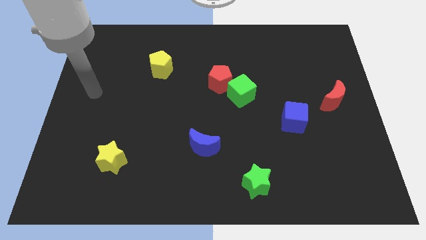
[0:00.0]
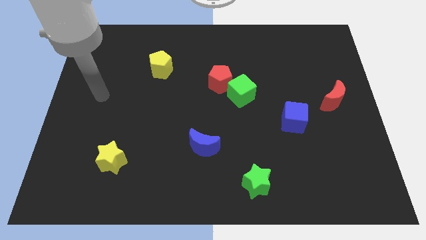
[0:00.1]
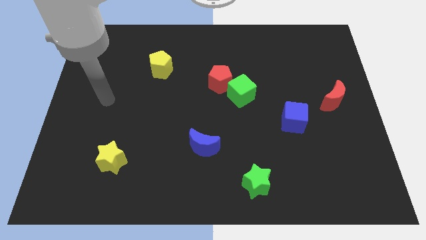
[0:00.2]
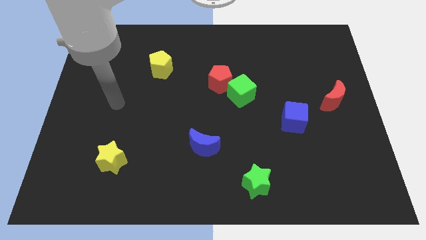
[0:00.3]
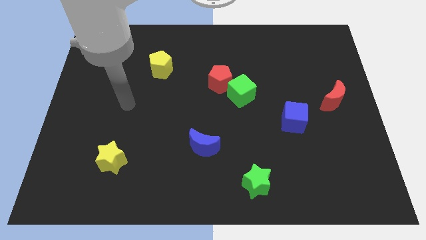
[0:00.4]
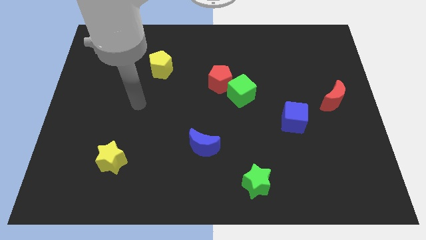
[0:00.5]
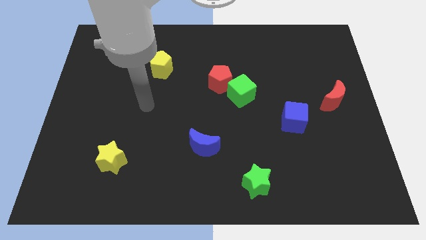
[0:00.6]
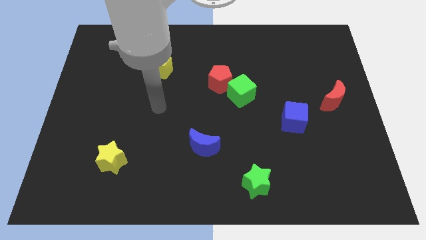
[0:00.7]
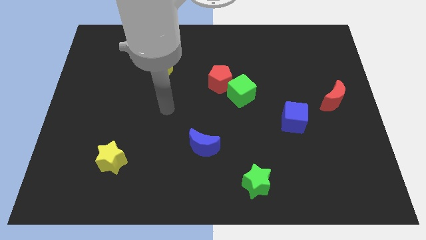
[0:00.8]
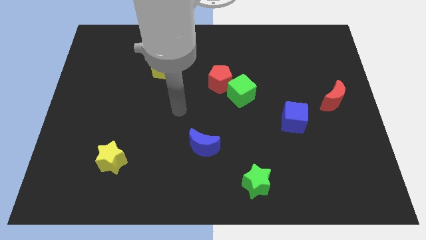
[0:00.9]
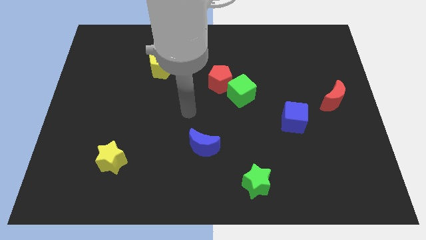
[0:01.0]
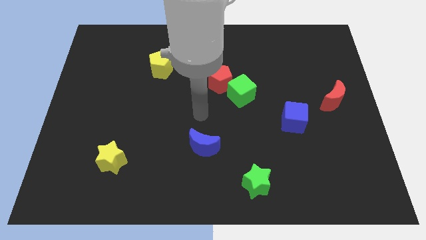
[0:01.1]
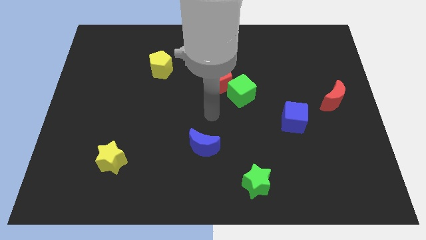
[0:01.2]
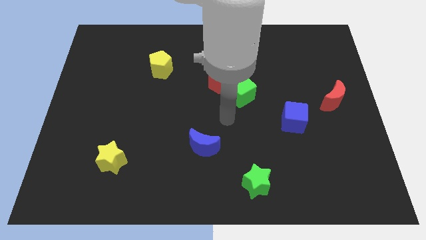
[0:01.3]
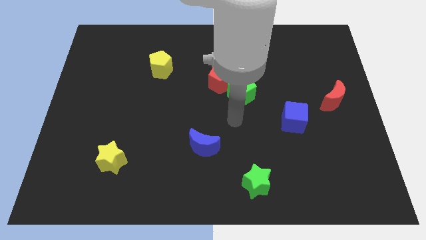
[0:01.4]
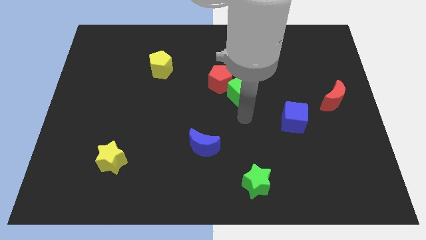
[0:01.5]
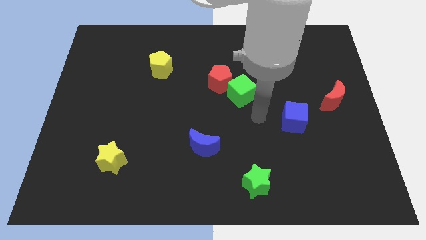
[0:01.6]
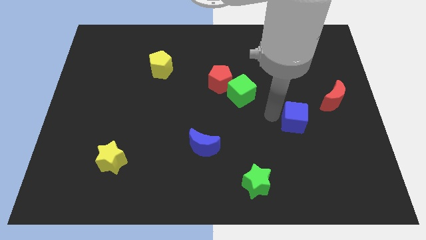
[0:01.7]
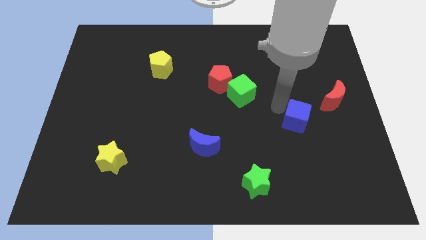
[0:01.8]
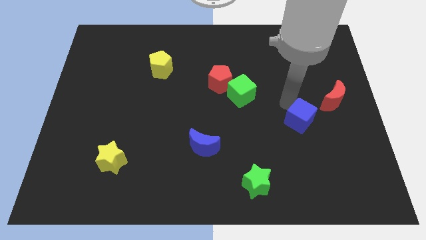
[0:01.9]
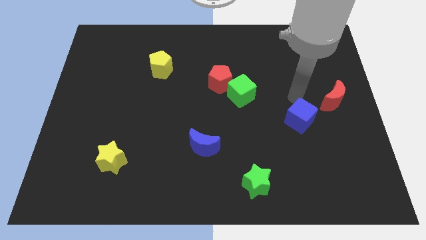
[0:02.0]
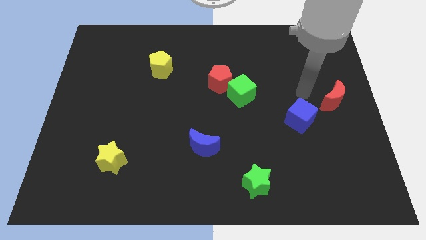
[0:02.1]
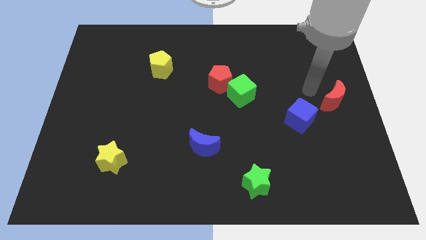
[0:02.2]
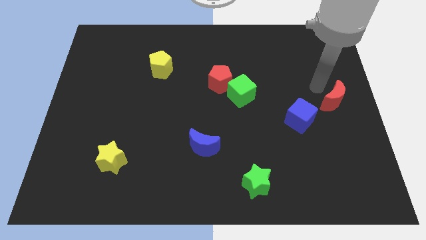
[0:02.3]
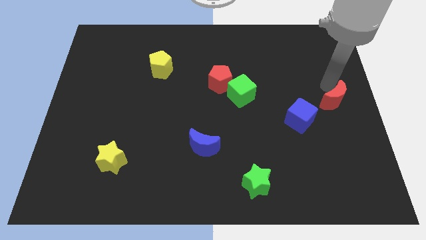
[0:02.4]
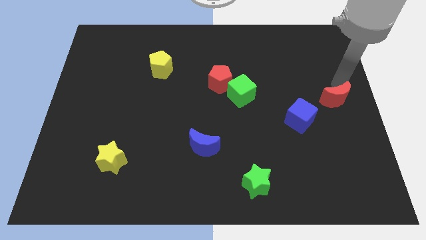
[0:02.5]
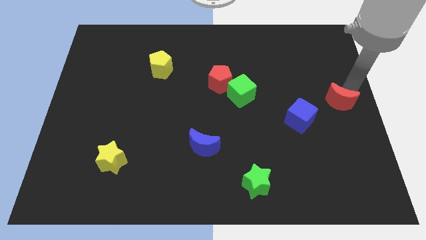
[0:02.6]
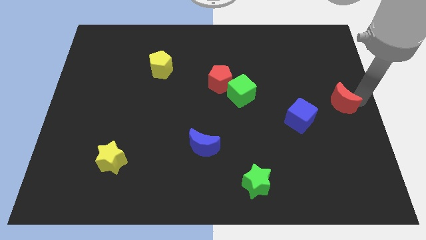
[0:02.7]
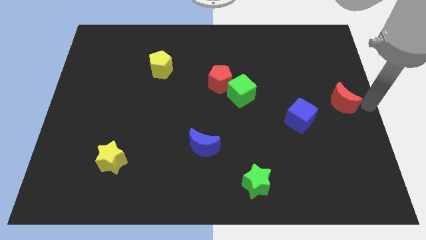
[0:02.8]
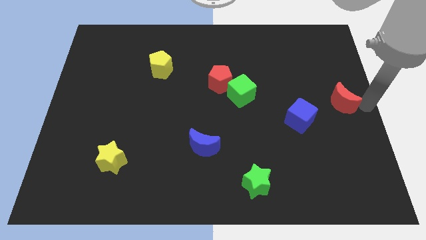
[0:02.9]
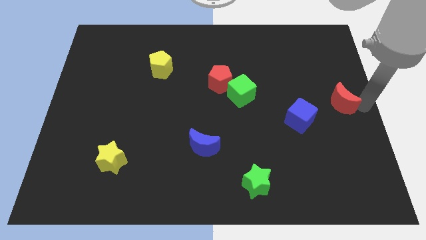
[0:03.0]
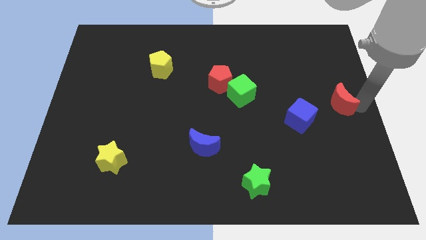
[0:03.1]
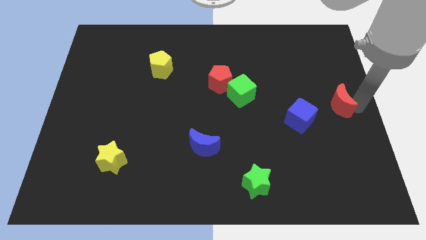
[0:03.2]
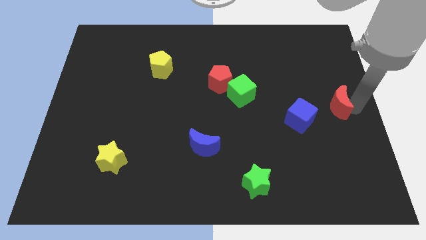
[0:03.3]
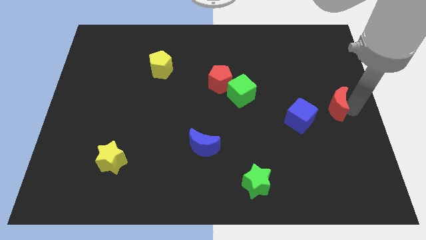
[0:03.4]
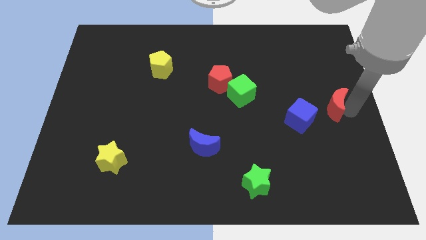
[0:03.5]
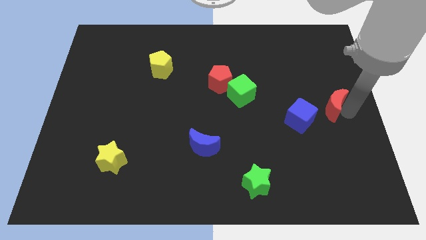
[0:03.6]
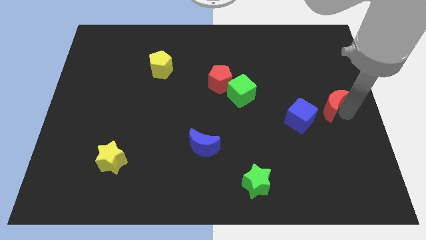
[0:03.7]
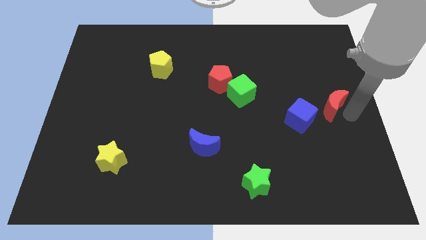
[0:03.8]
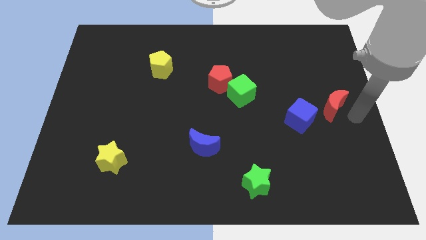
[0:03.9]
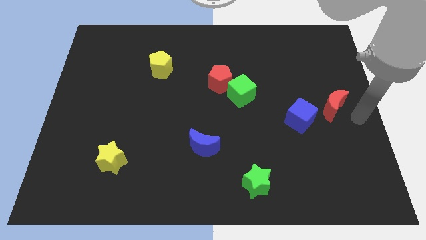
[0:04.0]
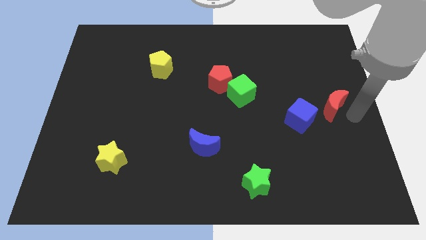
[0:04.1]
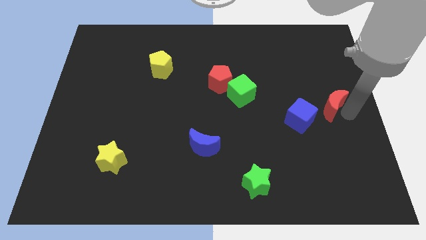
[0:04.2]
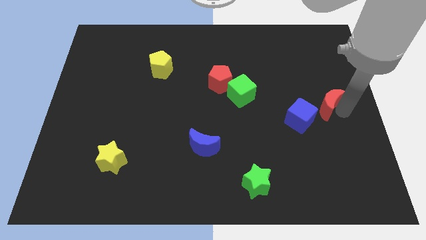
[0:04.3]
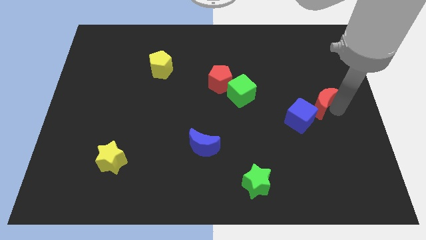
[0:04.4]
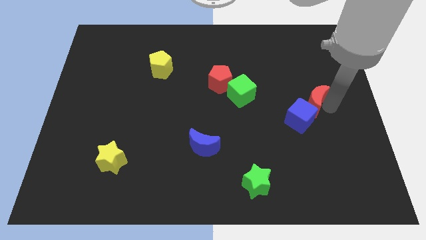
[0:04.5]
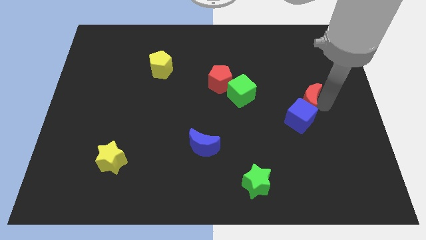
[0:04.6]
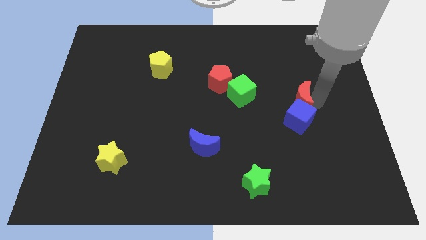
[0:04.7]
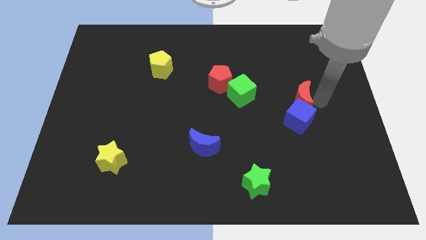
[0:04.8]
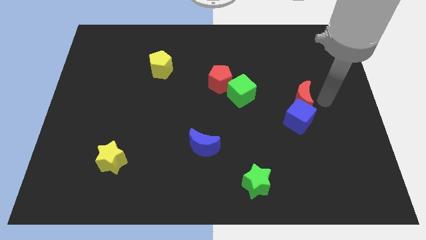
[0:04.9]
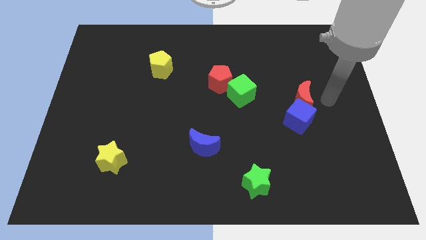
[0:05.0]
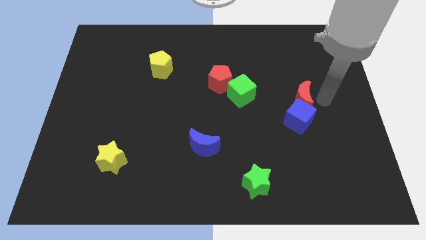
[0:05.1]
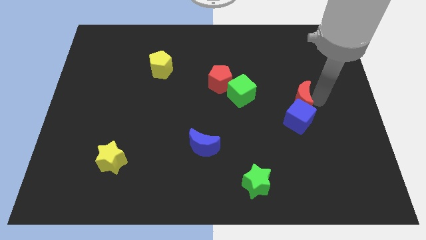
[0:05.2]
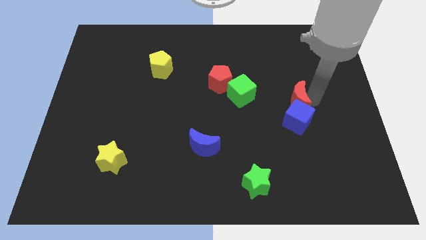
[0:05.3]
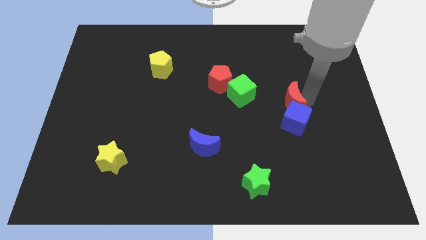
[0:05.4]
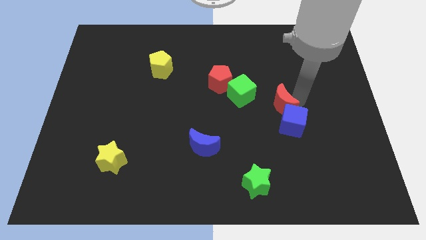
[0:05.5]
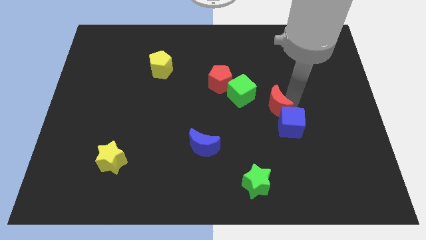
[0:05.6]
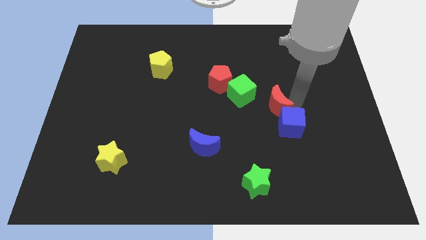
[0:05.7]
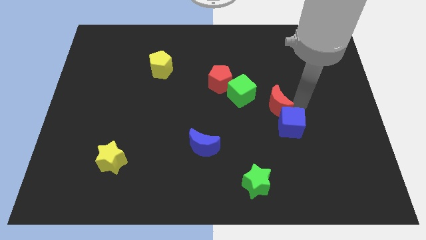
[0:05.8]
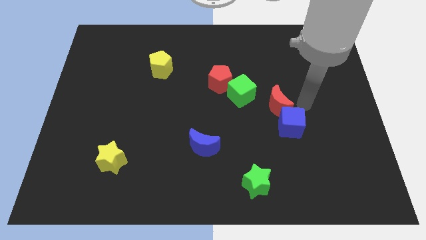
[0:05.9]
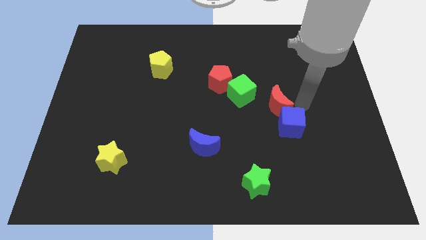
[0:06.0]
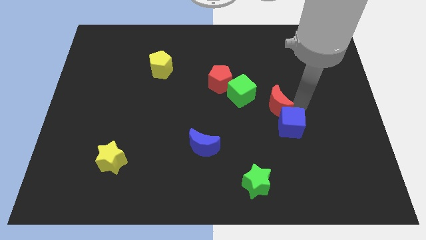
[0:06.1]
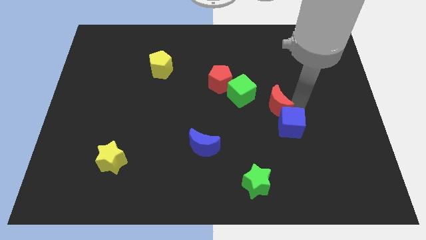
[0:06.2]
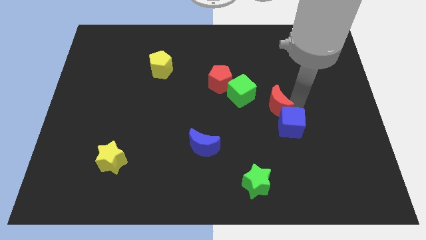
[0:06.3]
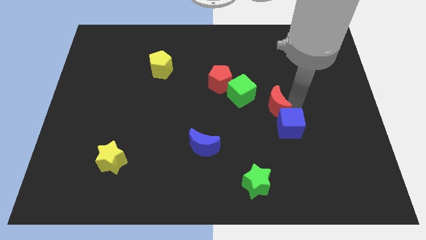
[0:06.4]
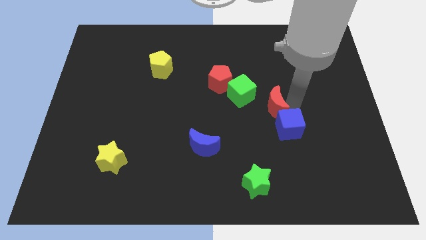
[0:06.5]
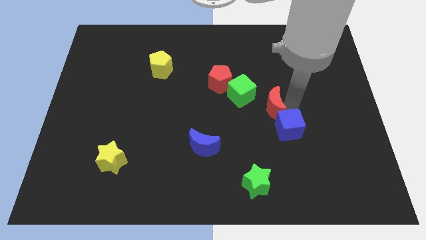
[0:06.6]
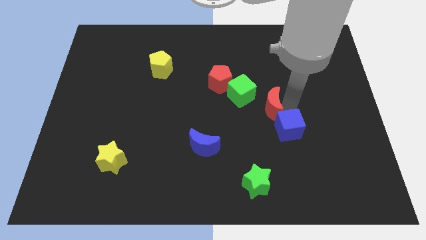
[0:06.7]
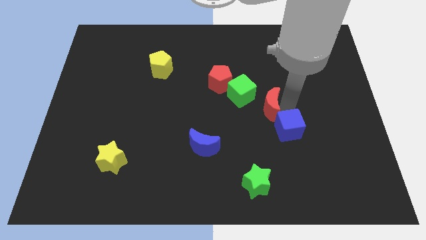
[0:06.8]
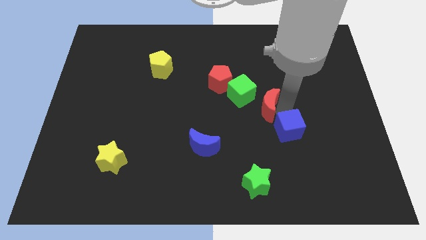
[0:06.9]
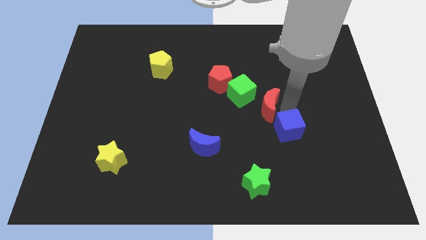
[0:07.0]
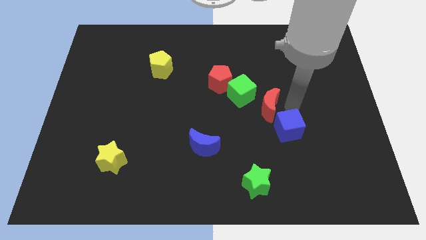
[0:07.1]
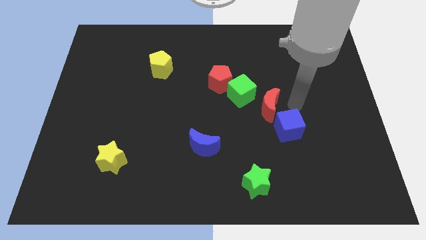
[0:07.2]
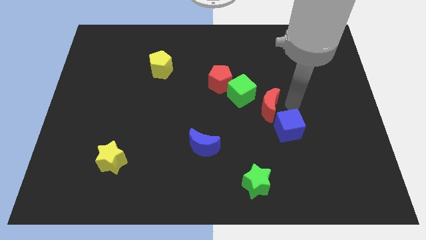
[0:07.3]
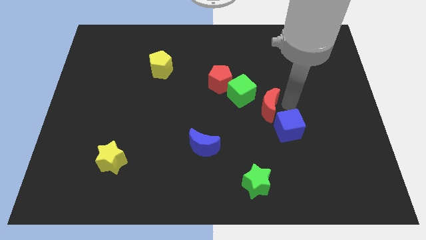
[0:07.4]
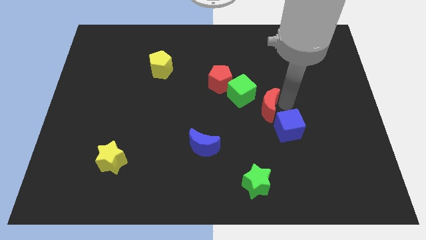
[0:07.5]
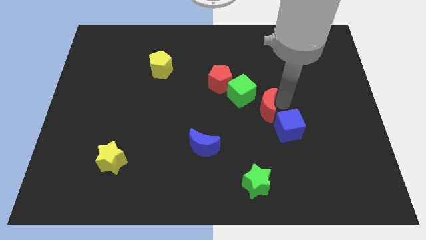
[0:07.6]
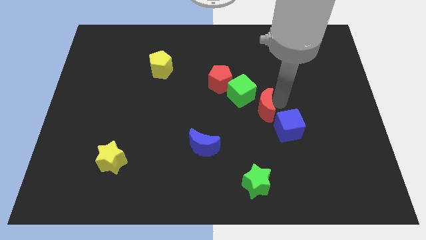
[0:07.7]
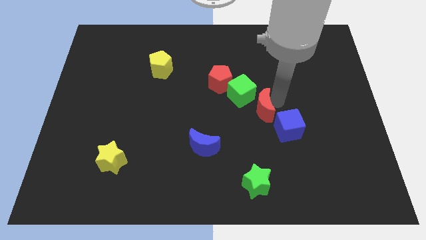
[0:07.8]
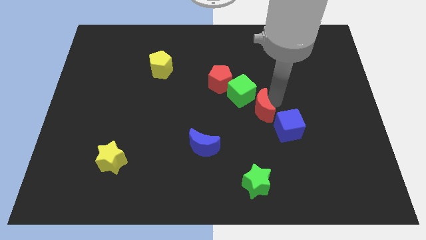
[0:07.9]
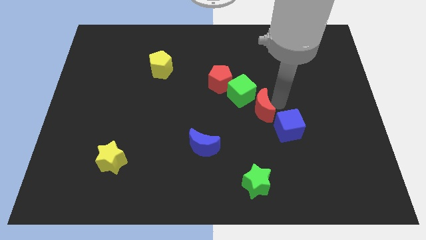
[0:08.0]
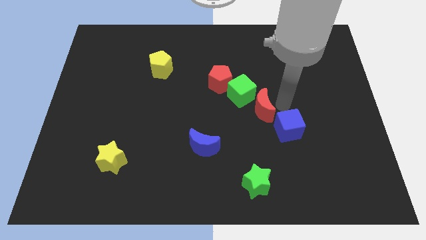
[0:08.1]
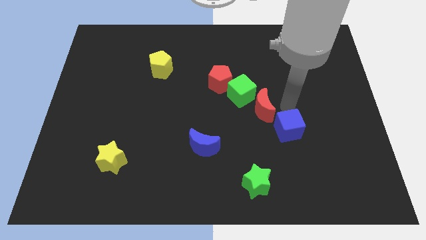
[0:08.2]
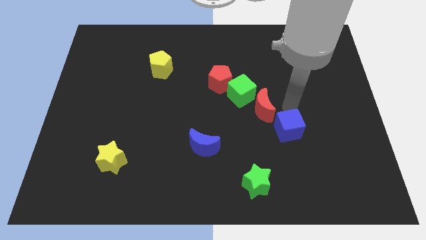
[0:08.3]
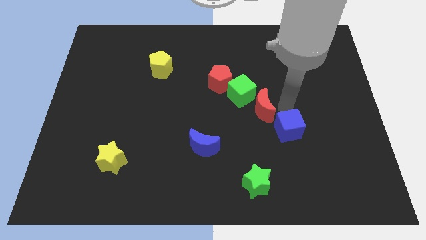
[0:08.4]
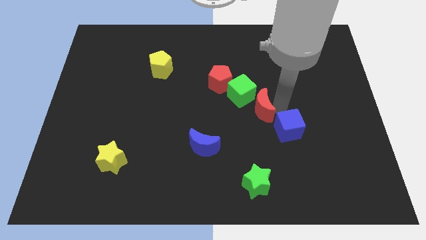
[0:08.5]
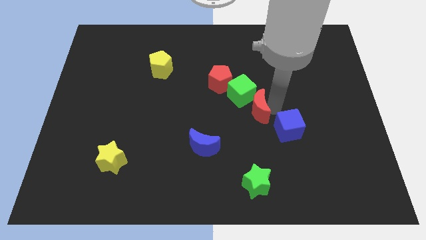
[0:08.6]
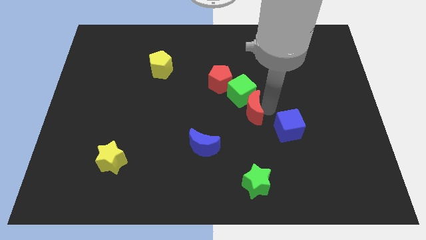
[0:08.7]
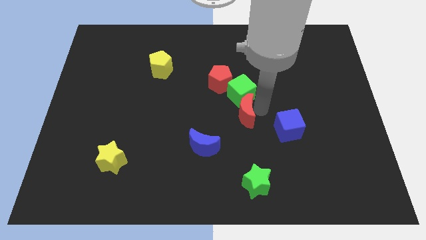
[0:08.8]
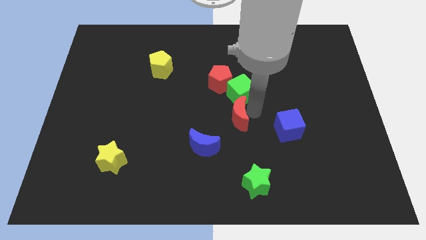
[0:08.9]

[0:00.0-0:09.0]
put the red moon to the bottom of the red pentagon
